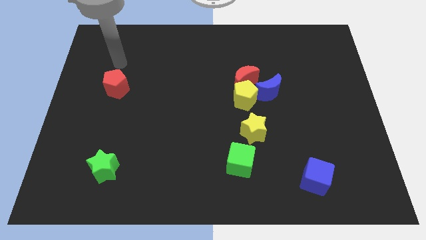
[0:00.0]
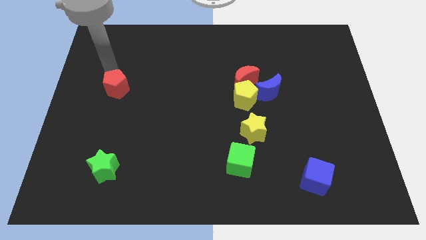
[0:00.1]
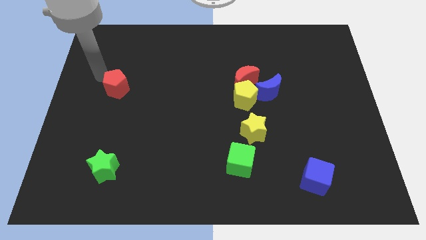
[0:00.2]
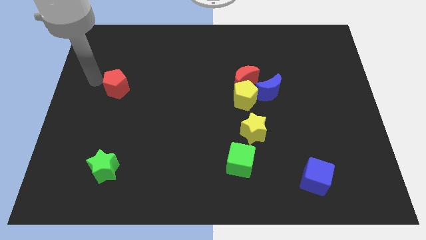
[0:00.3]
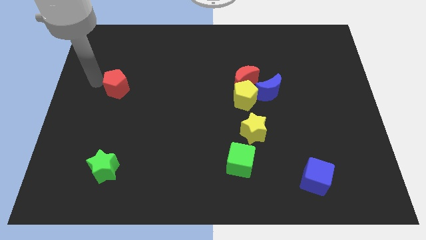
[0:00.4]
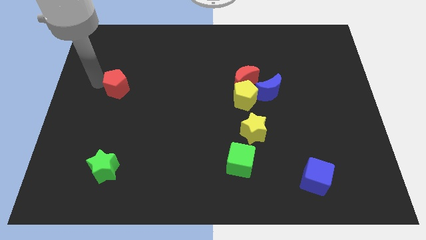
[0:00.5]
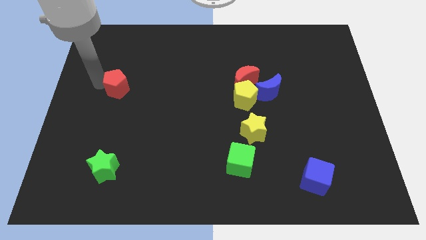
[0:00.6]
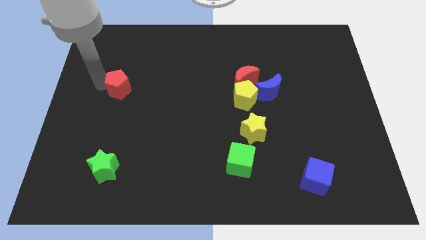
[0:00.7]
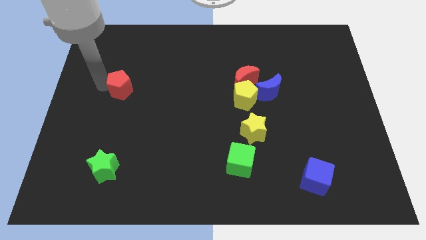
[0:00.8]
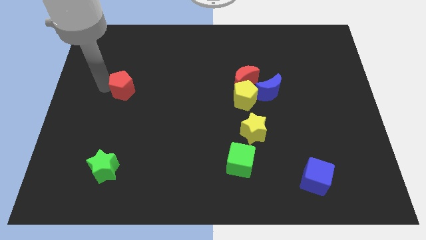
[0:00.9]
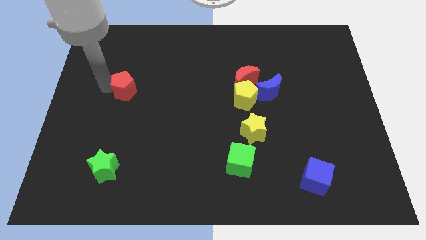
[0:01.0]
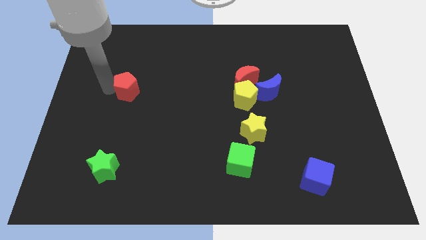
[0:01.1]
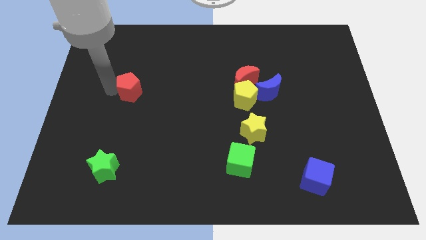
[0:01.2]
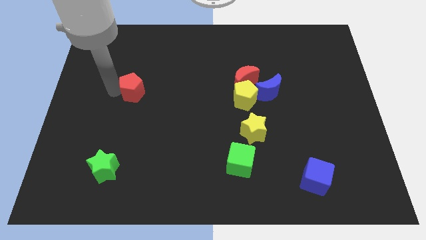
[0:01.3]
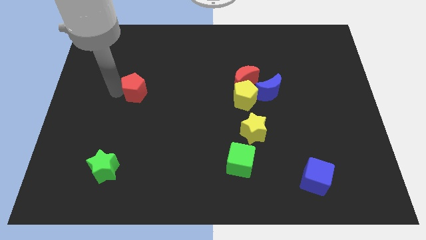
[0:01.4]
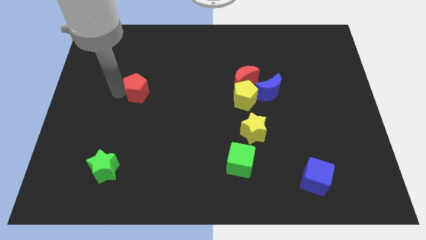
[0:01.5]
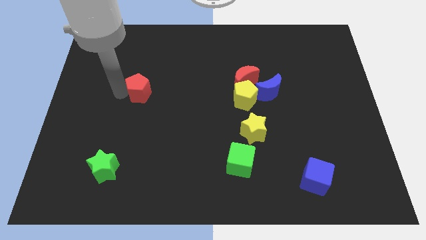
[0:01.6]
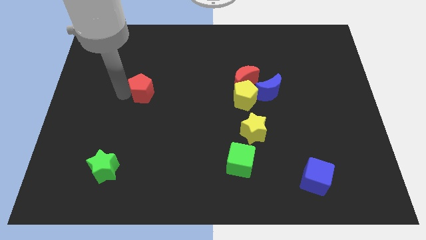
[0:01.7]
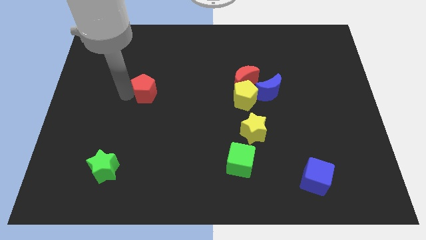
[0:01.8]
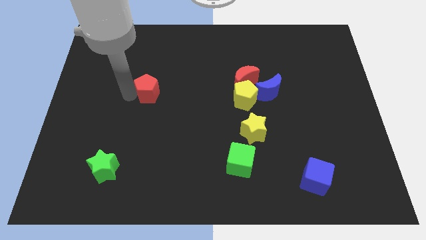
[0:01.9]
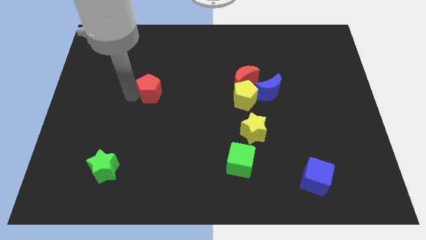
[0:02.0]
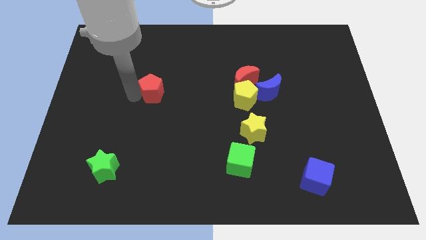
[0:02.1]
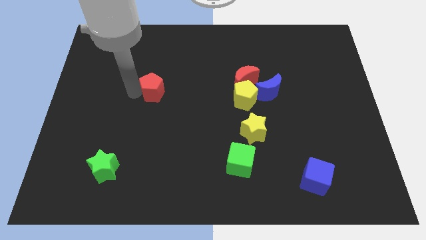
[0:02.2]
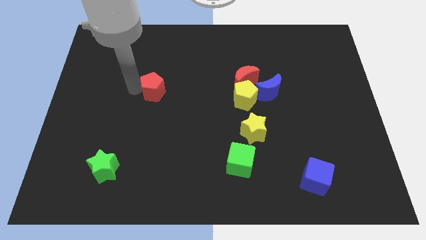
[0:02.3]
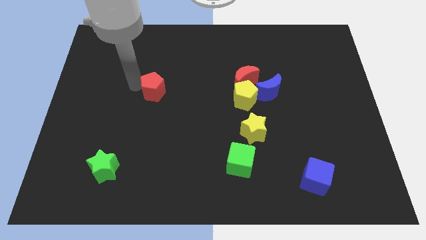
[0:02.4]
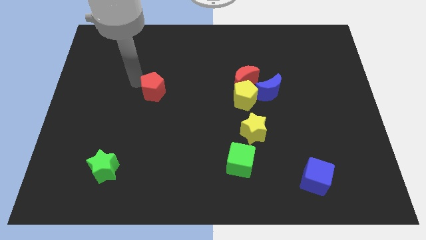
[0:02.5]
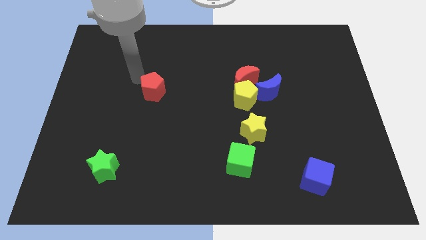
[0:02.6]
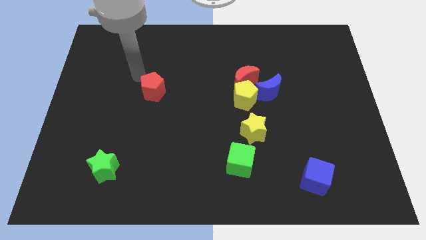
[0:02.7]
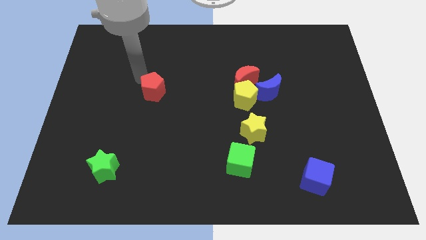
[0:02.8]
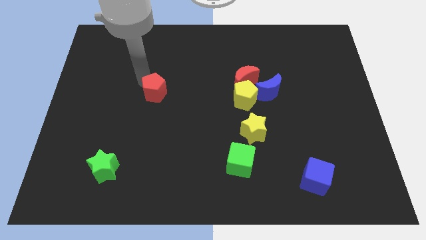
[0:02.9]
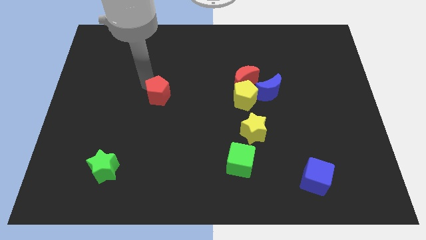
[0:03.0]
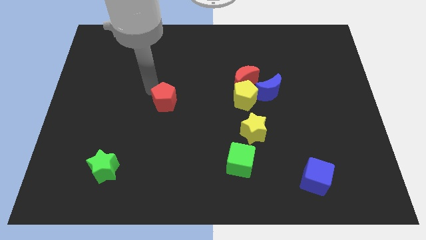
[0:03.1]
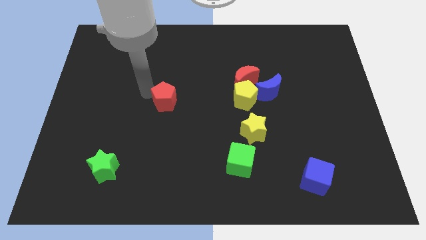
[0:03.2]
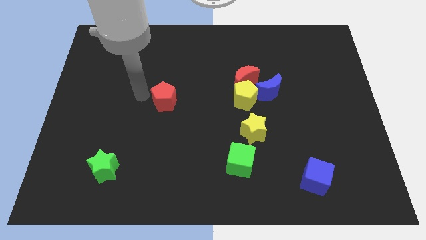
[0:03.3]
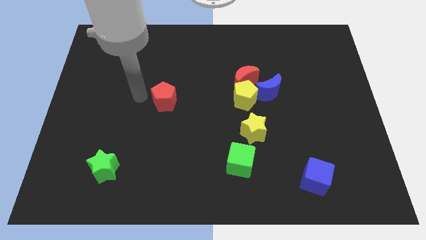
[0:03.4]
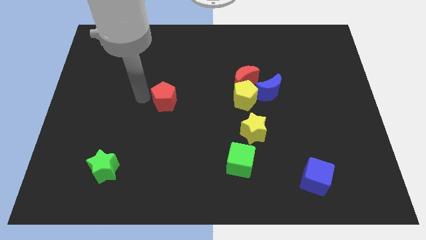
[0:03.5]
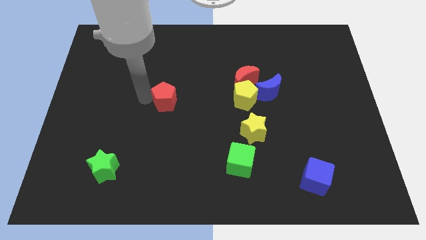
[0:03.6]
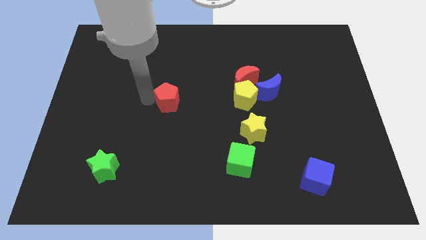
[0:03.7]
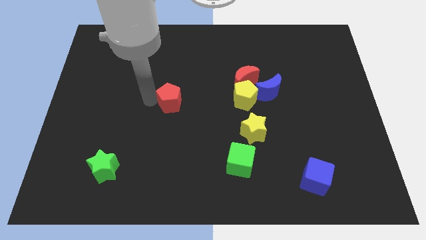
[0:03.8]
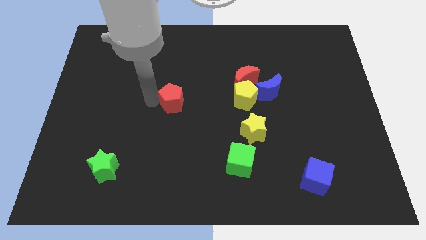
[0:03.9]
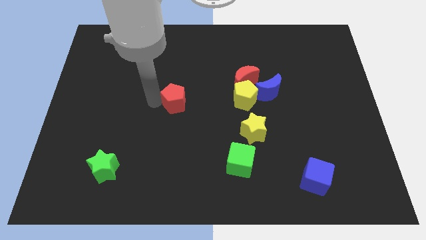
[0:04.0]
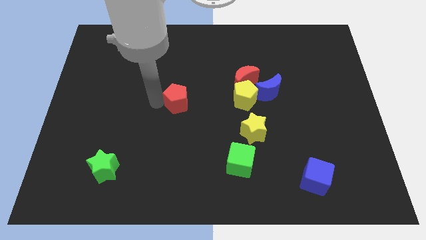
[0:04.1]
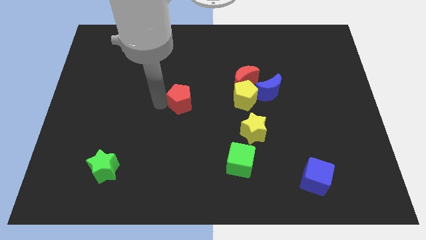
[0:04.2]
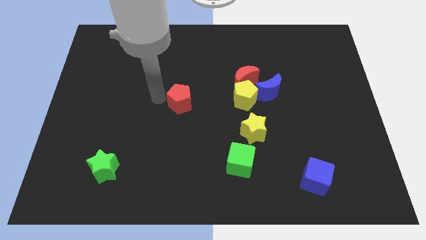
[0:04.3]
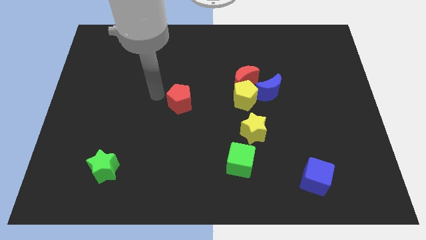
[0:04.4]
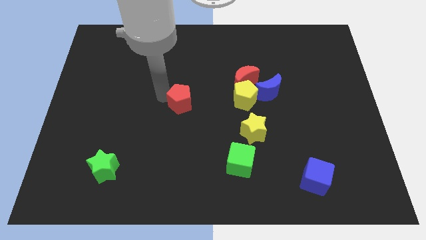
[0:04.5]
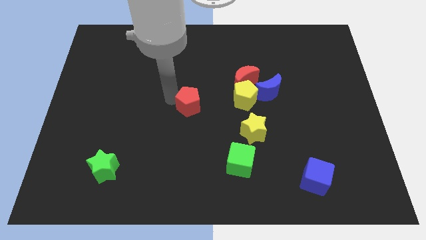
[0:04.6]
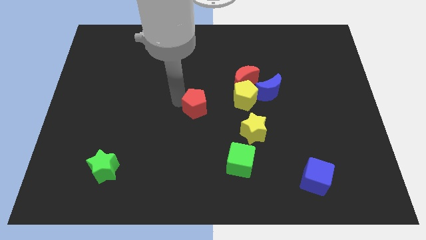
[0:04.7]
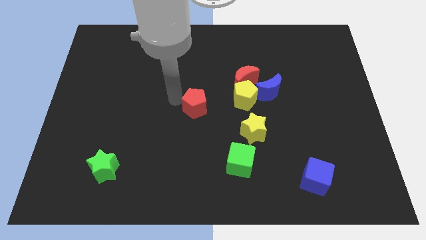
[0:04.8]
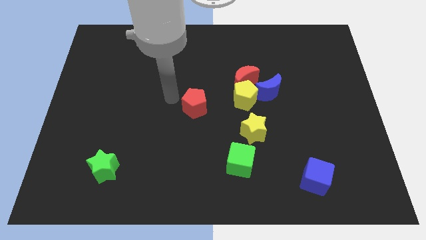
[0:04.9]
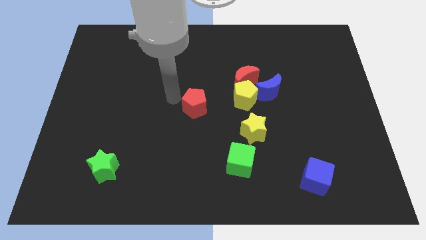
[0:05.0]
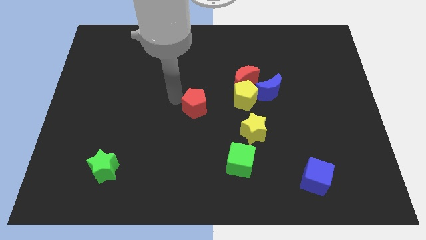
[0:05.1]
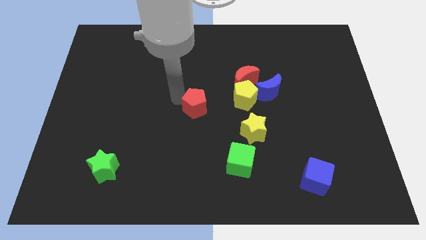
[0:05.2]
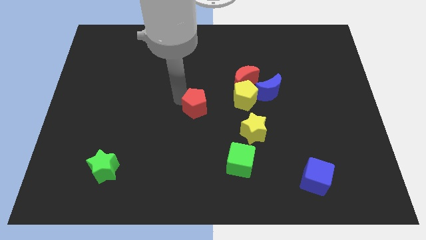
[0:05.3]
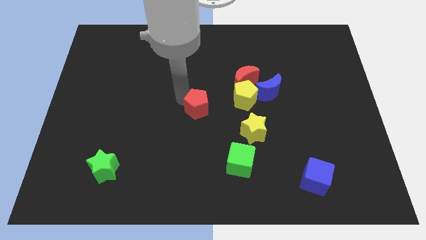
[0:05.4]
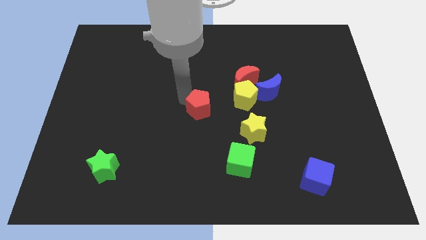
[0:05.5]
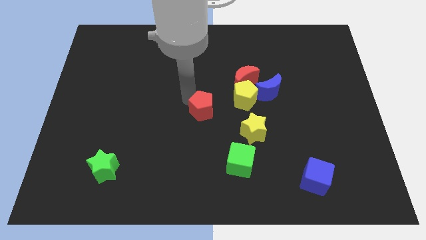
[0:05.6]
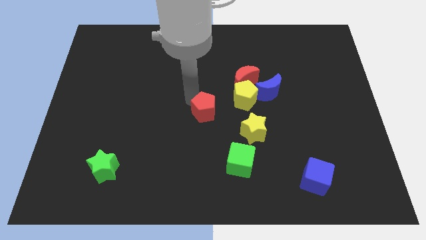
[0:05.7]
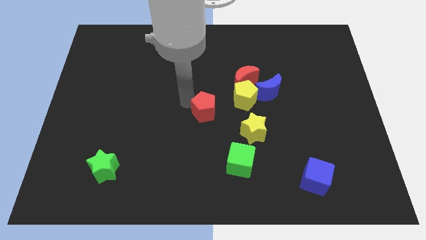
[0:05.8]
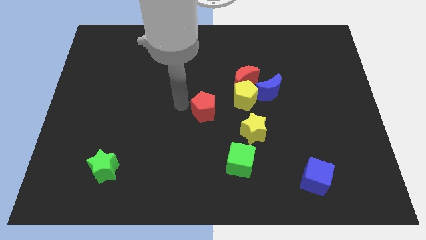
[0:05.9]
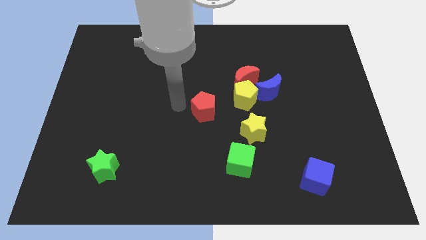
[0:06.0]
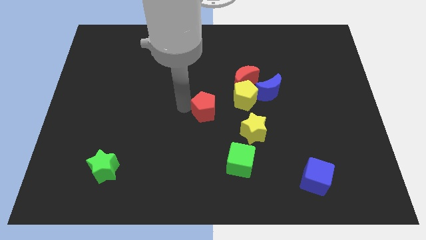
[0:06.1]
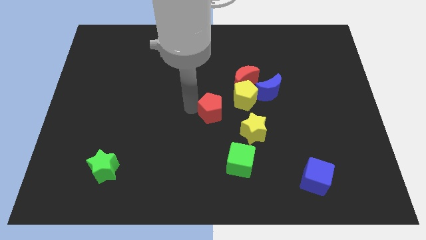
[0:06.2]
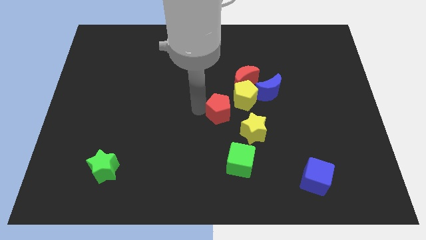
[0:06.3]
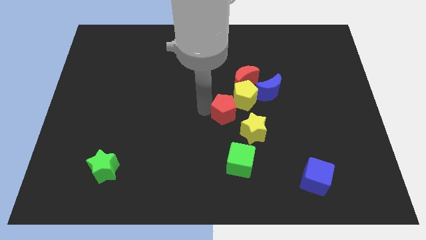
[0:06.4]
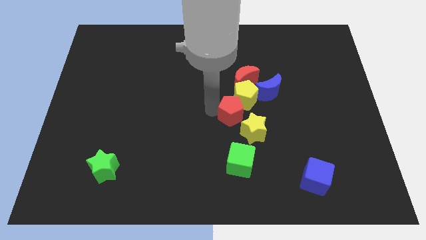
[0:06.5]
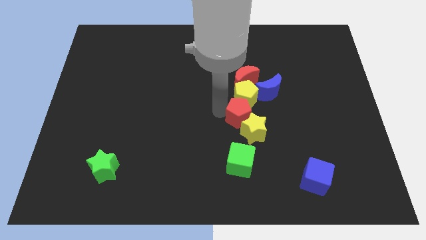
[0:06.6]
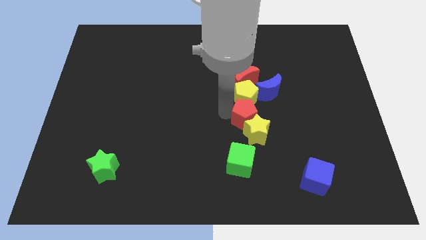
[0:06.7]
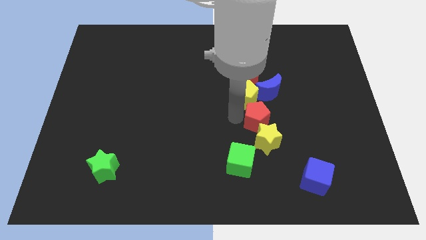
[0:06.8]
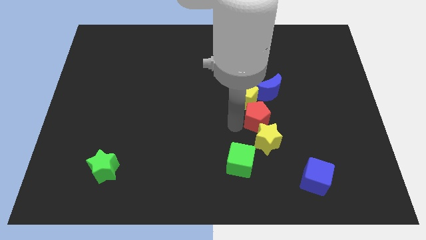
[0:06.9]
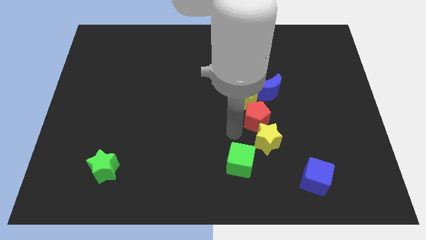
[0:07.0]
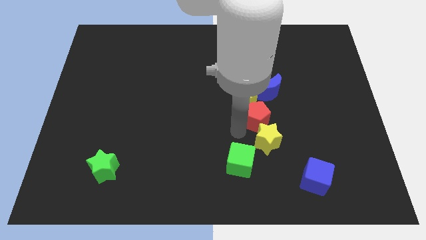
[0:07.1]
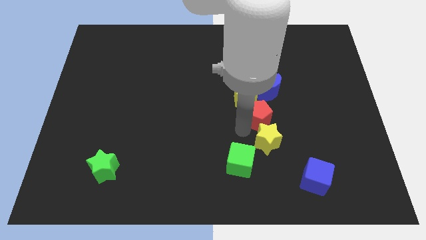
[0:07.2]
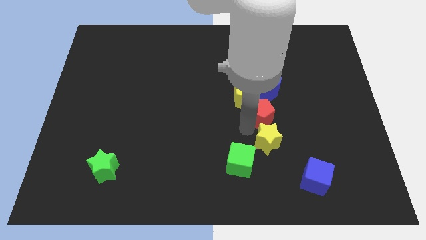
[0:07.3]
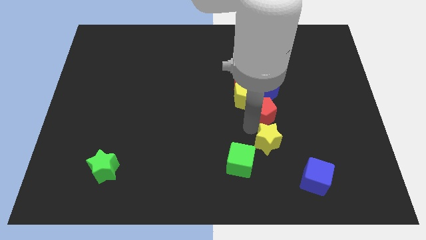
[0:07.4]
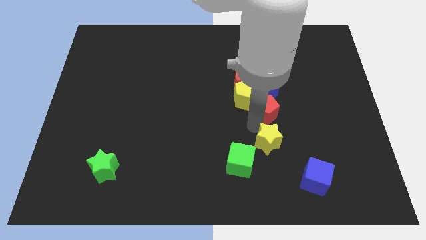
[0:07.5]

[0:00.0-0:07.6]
push the red pentagon to the right side of the yellow pentagon
